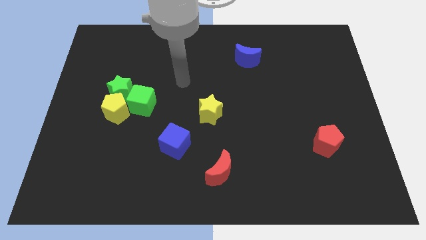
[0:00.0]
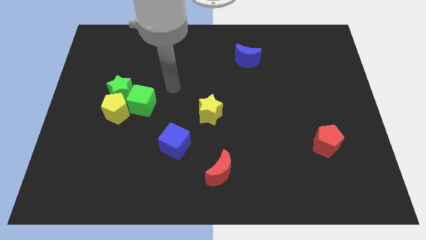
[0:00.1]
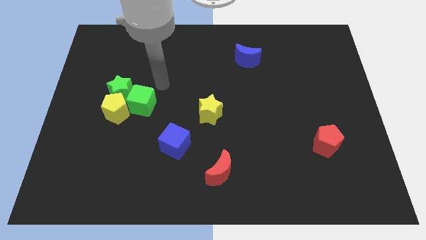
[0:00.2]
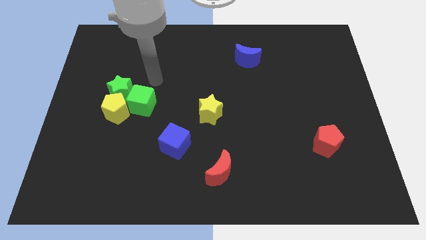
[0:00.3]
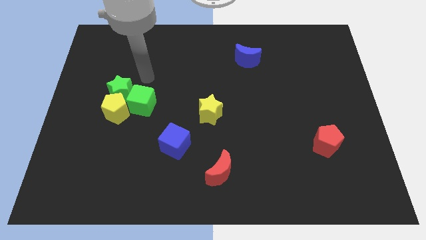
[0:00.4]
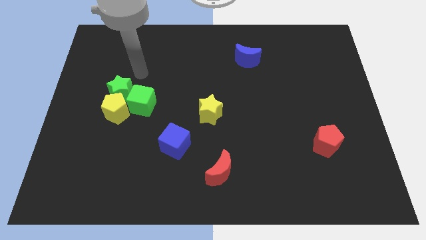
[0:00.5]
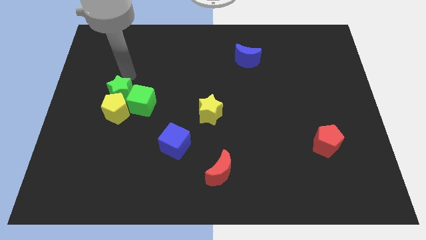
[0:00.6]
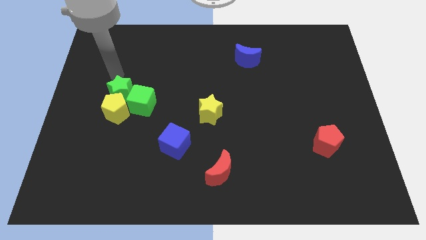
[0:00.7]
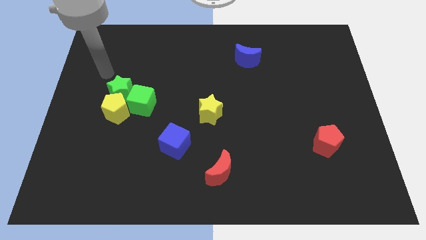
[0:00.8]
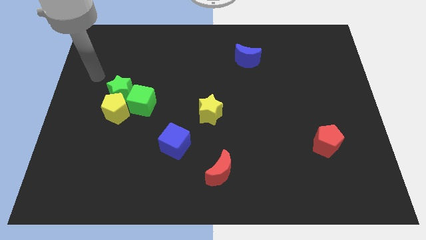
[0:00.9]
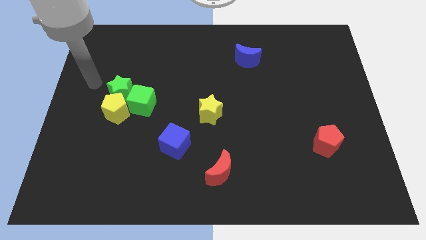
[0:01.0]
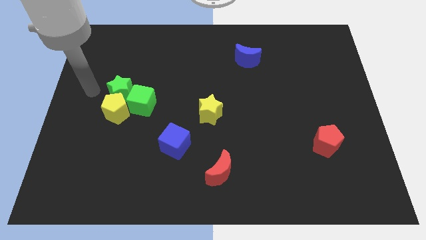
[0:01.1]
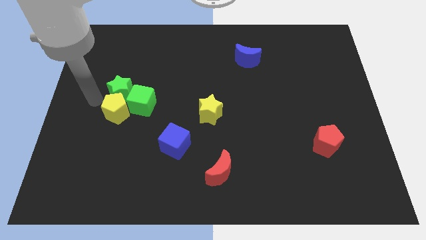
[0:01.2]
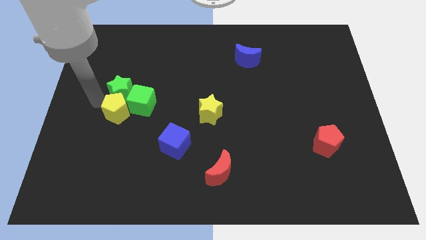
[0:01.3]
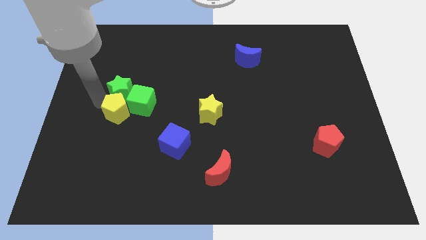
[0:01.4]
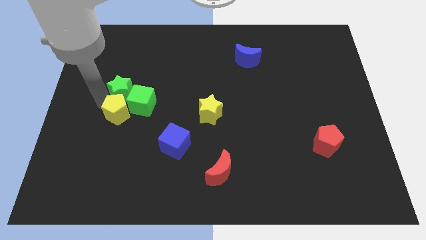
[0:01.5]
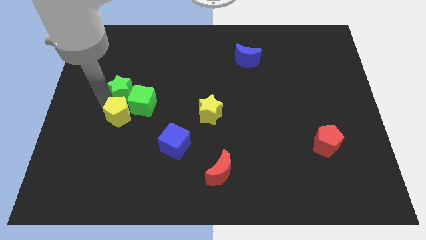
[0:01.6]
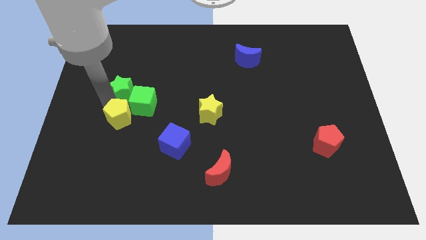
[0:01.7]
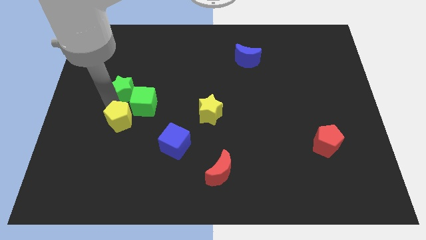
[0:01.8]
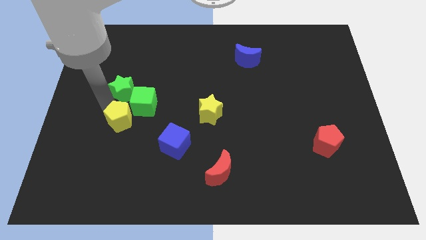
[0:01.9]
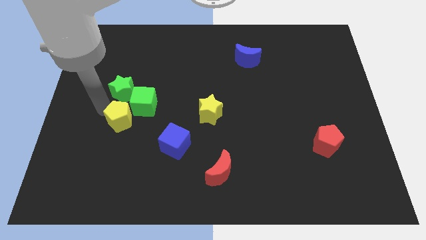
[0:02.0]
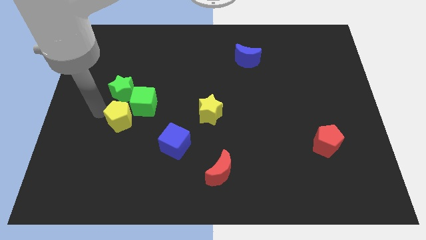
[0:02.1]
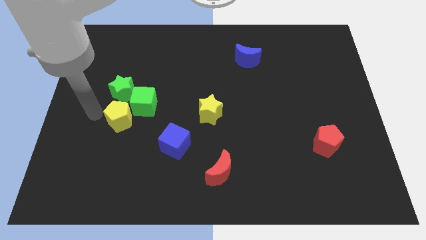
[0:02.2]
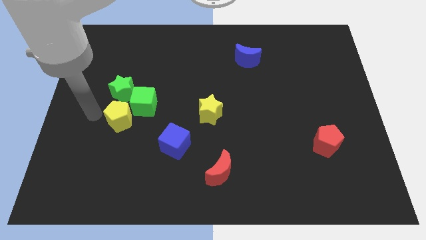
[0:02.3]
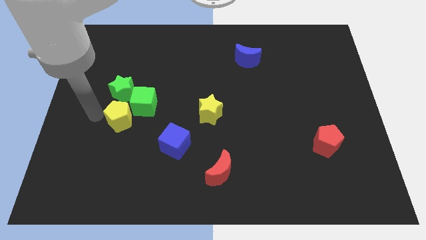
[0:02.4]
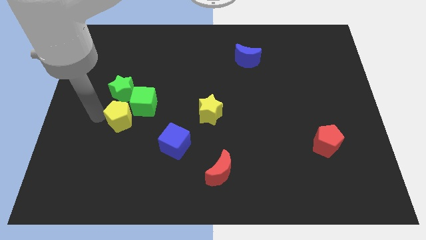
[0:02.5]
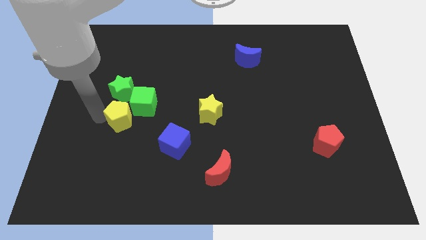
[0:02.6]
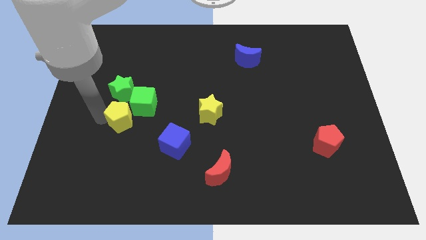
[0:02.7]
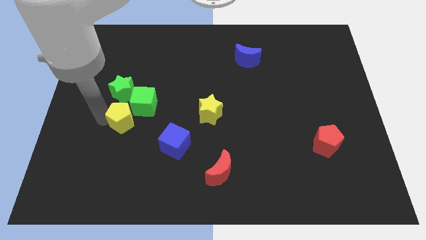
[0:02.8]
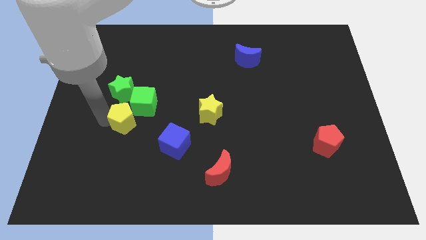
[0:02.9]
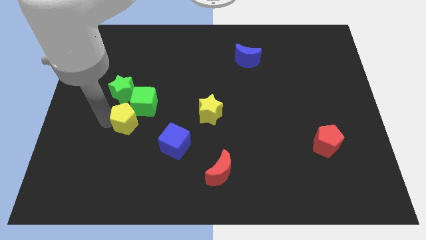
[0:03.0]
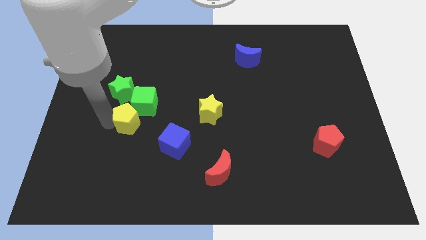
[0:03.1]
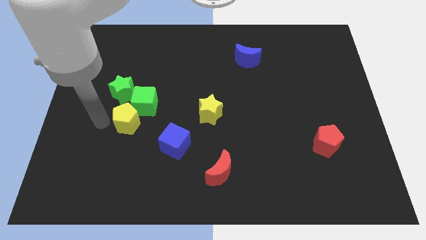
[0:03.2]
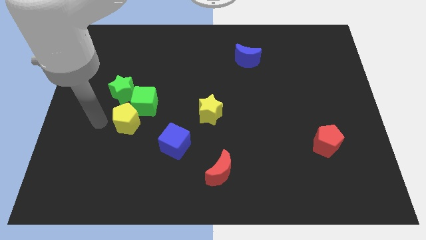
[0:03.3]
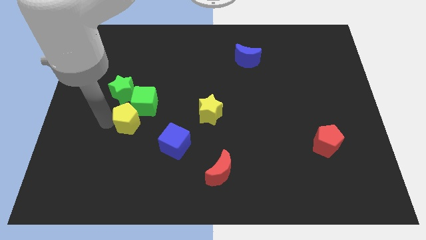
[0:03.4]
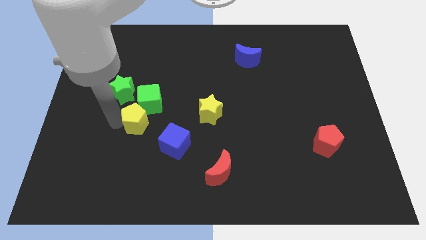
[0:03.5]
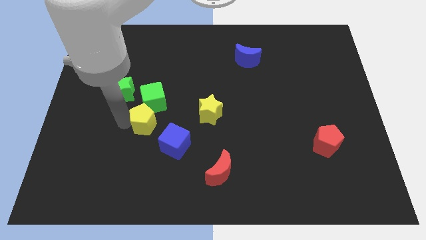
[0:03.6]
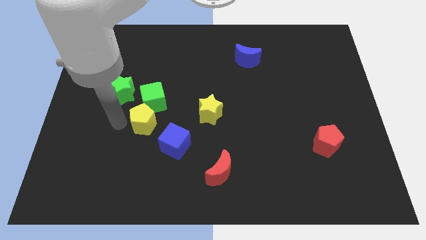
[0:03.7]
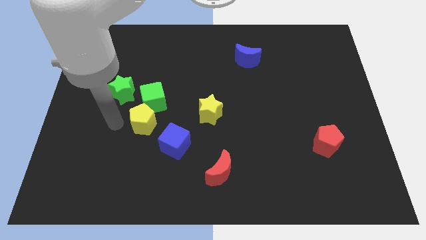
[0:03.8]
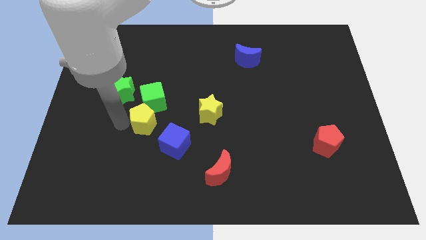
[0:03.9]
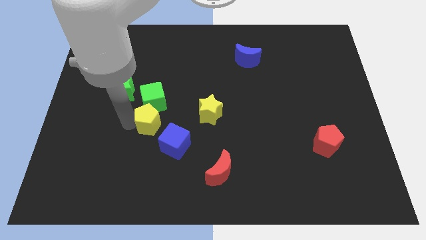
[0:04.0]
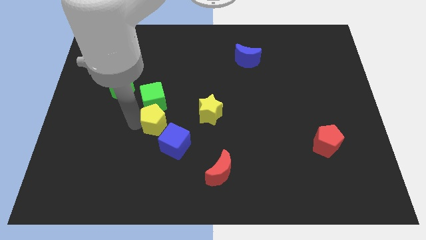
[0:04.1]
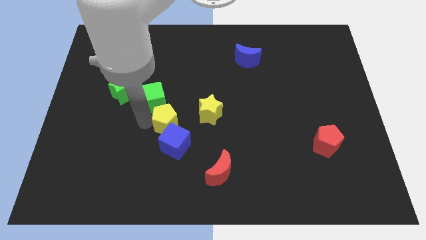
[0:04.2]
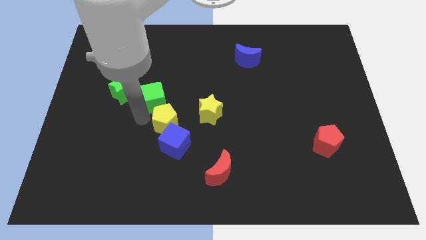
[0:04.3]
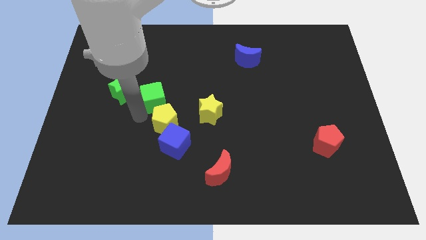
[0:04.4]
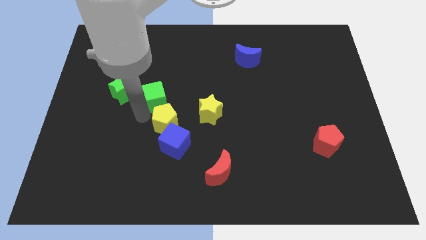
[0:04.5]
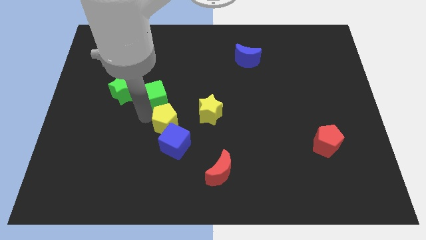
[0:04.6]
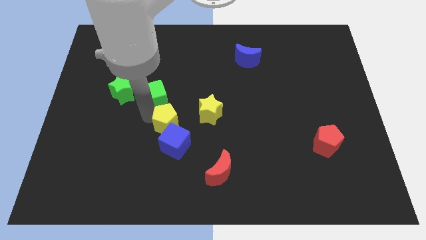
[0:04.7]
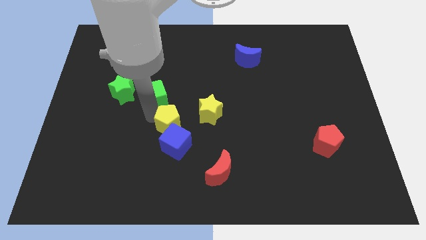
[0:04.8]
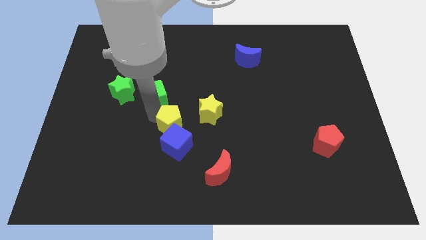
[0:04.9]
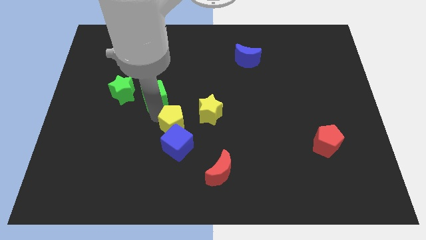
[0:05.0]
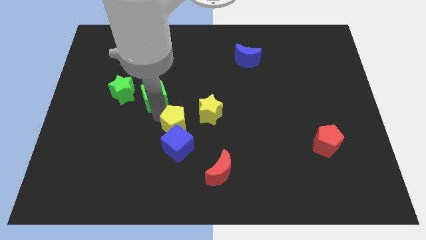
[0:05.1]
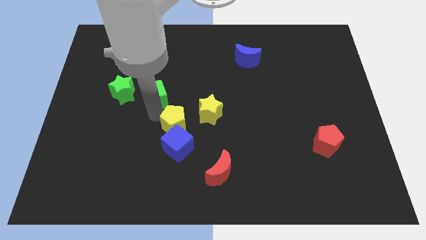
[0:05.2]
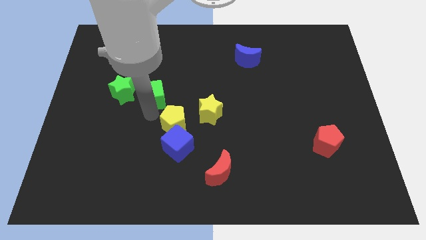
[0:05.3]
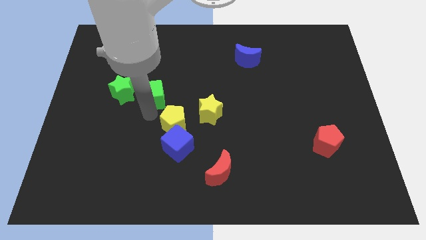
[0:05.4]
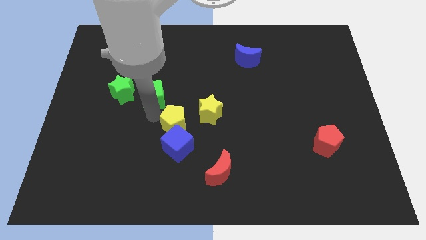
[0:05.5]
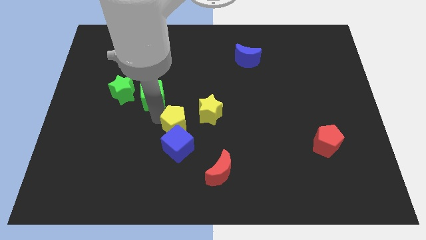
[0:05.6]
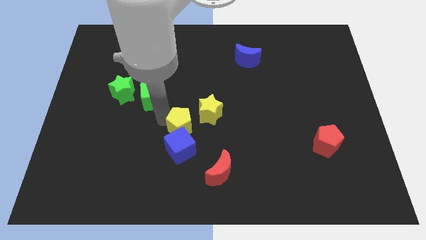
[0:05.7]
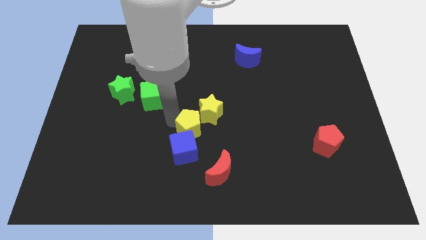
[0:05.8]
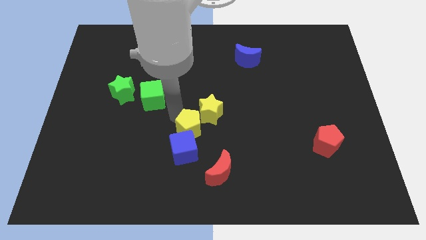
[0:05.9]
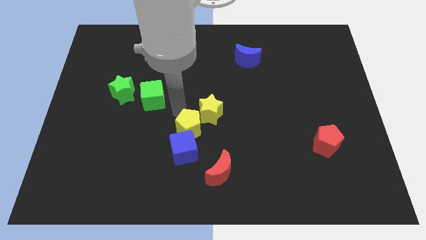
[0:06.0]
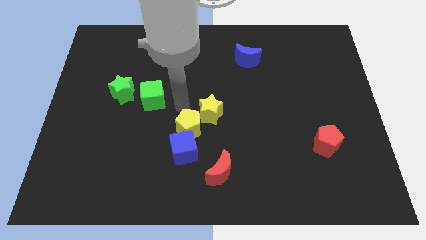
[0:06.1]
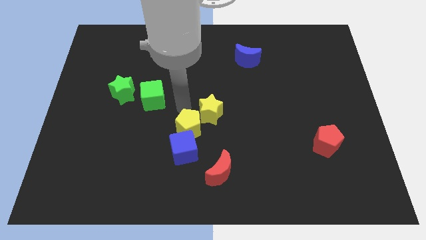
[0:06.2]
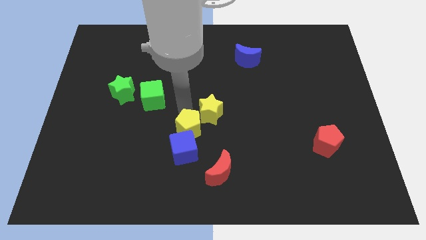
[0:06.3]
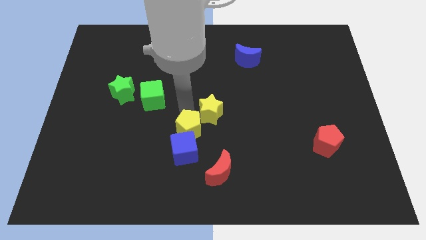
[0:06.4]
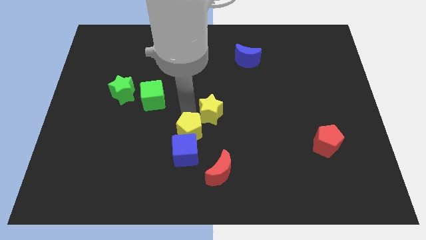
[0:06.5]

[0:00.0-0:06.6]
push the yellow pentagon diagonally up and to the left of the red moon

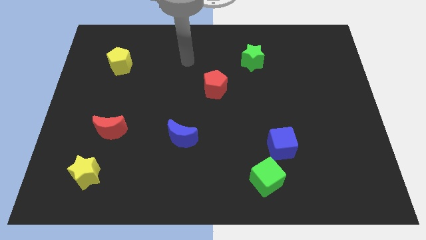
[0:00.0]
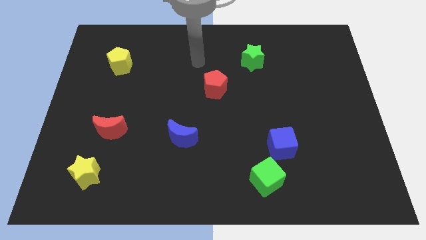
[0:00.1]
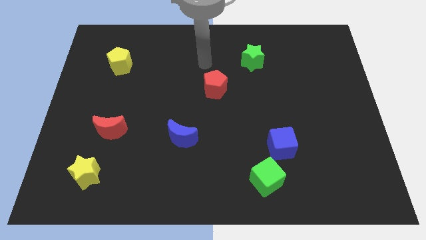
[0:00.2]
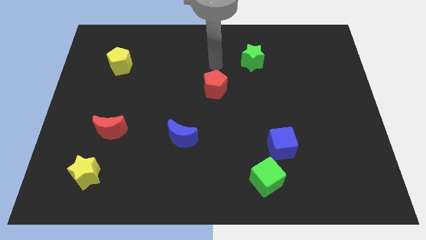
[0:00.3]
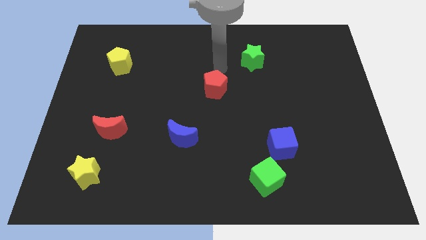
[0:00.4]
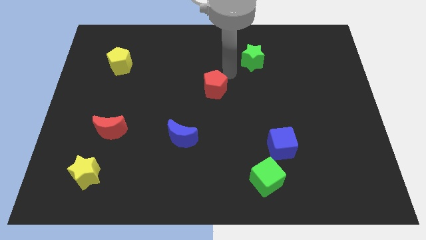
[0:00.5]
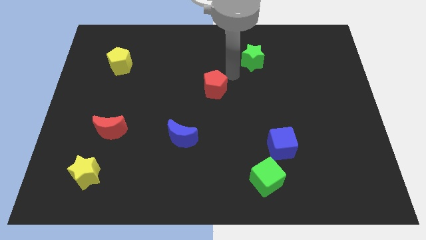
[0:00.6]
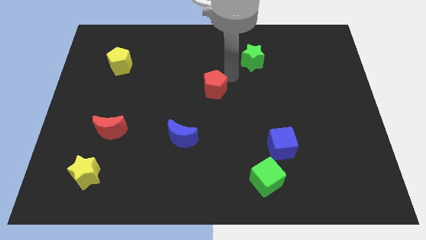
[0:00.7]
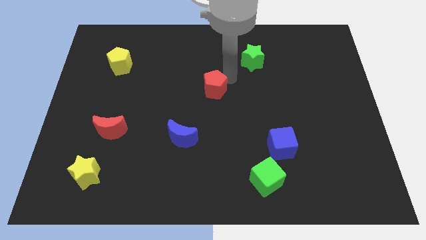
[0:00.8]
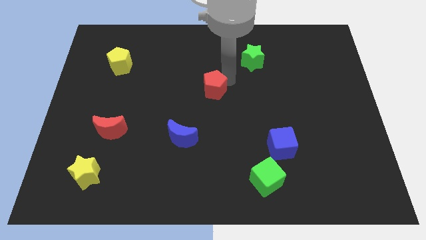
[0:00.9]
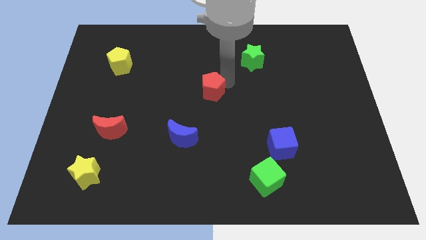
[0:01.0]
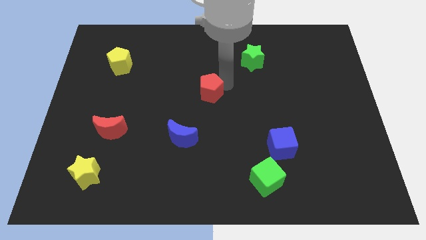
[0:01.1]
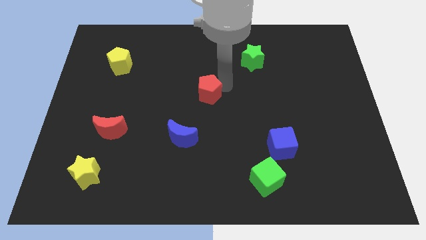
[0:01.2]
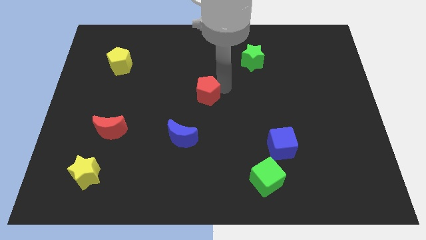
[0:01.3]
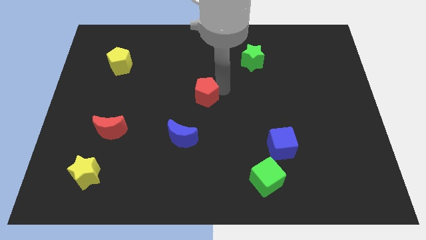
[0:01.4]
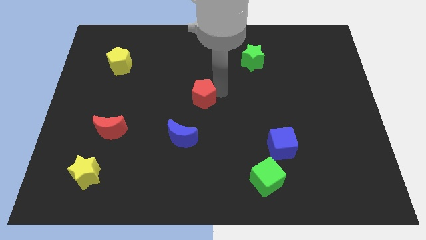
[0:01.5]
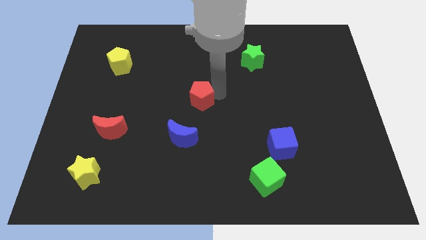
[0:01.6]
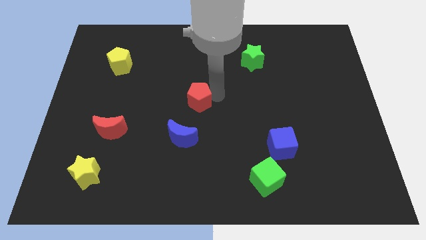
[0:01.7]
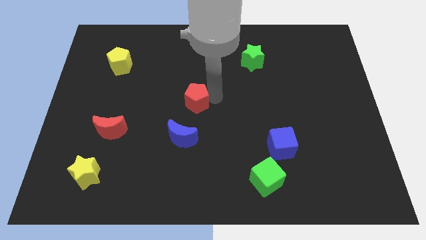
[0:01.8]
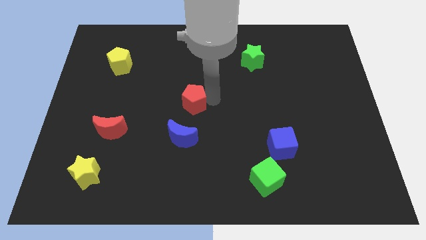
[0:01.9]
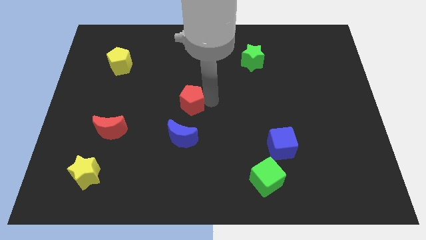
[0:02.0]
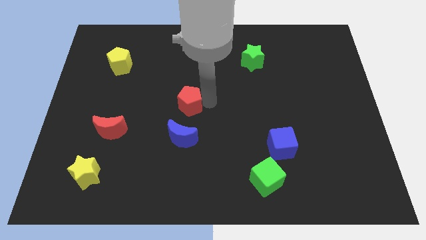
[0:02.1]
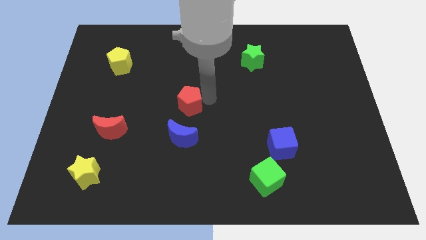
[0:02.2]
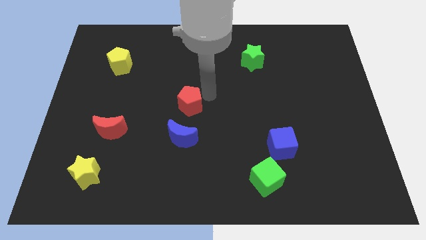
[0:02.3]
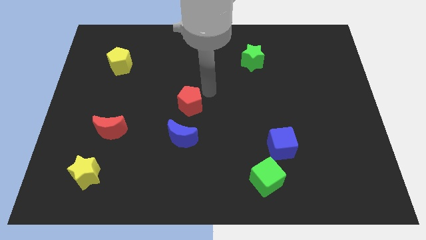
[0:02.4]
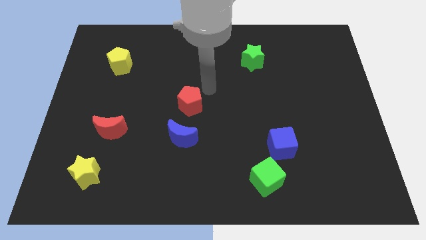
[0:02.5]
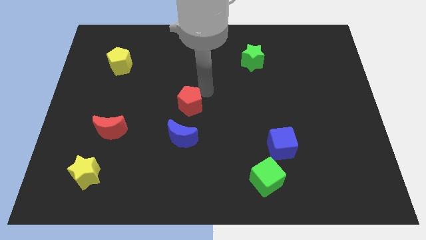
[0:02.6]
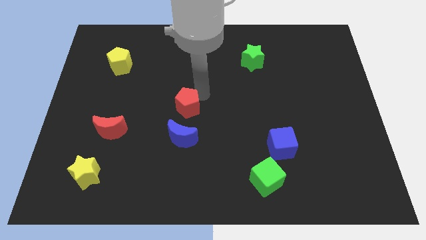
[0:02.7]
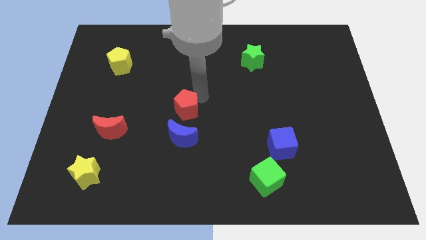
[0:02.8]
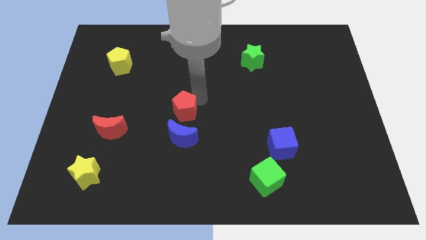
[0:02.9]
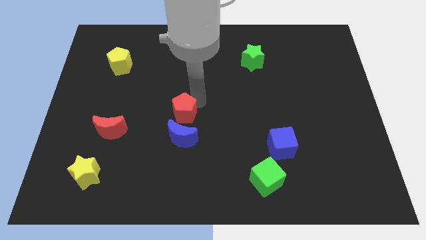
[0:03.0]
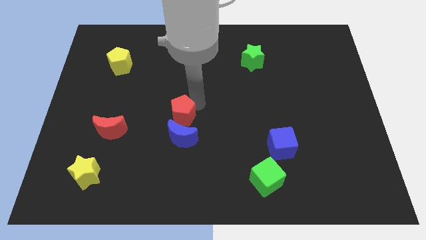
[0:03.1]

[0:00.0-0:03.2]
move the red pentagon diagonally up and to the left of the blue moon
